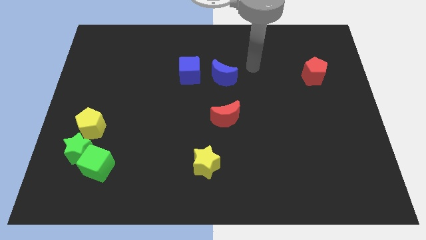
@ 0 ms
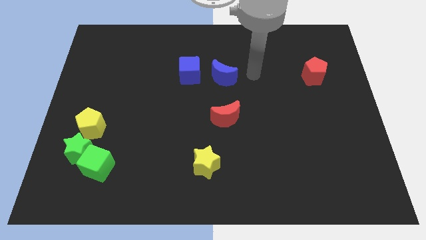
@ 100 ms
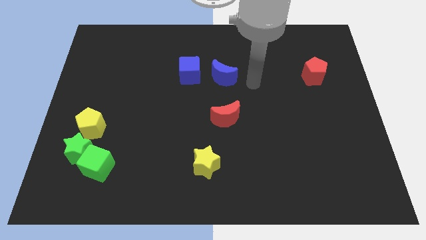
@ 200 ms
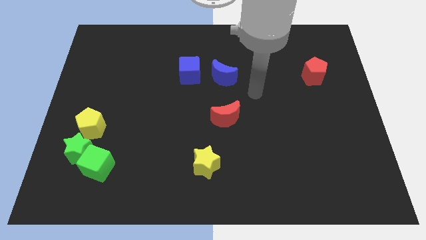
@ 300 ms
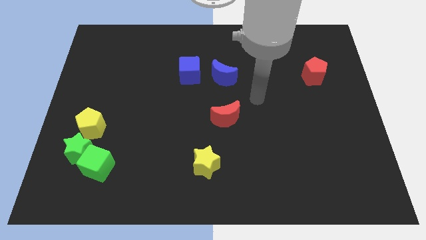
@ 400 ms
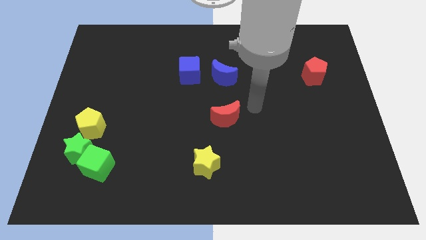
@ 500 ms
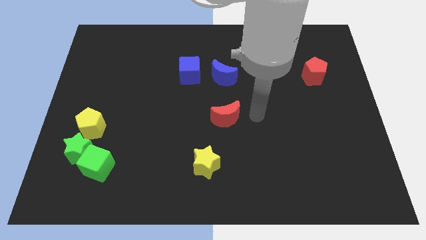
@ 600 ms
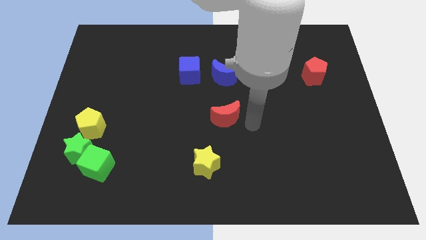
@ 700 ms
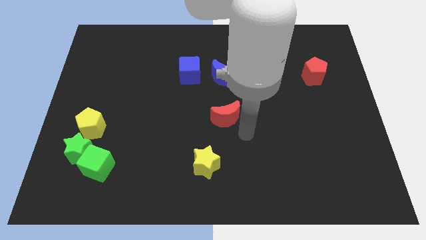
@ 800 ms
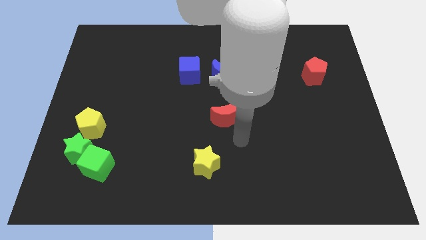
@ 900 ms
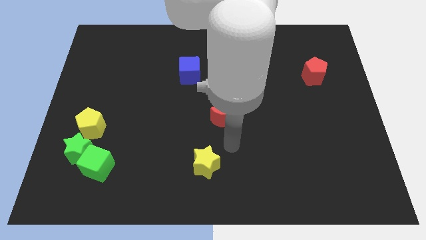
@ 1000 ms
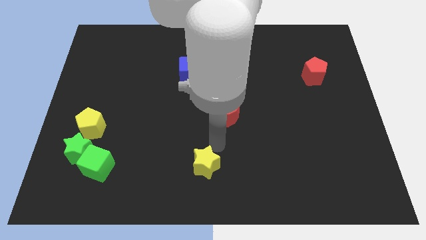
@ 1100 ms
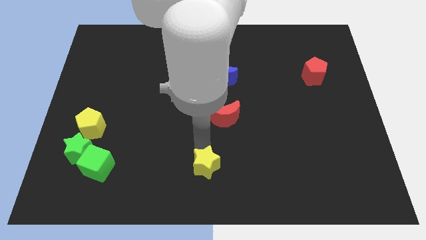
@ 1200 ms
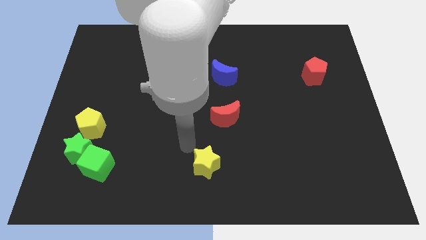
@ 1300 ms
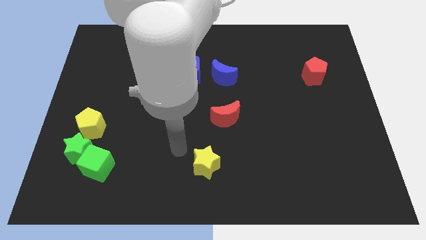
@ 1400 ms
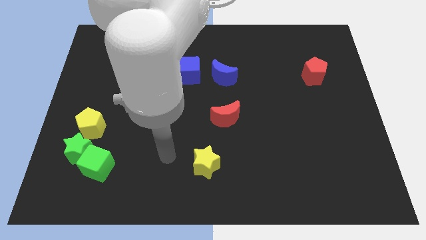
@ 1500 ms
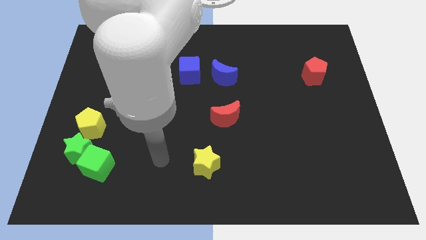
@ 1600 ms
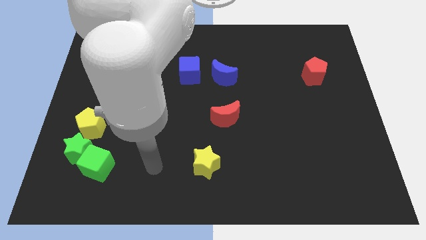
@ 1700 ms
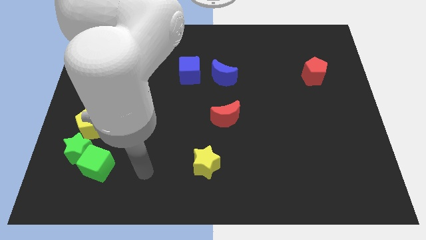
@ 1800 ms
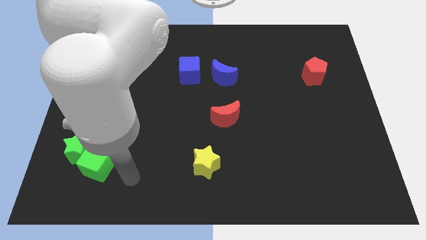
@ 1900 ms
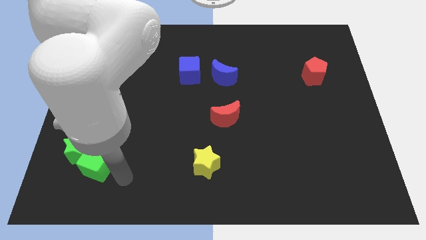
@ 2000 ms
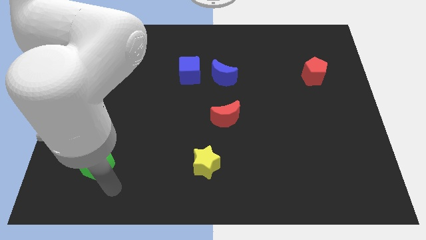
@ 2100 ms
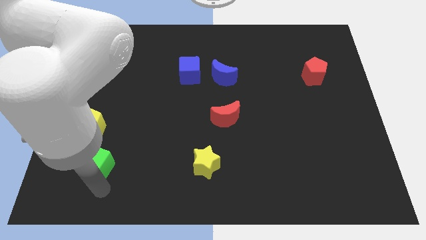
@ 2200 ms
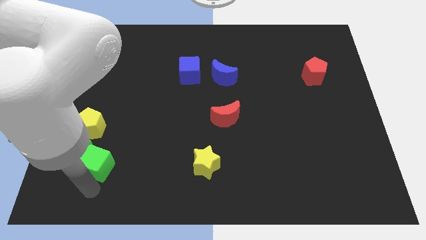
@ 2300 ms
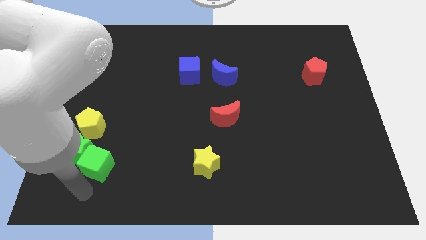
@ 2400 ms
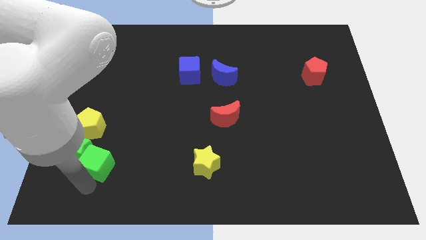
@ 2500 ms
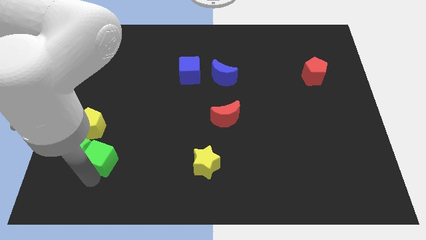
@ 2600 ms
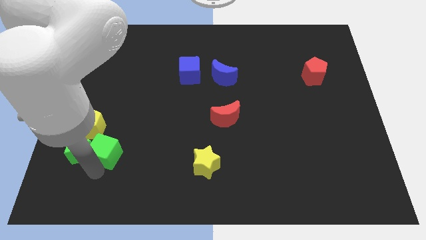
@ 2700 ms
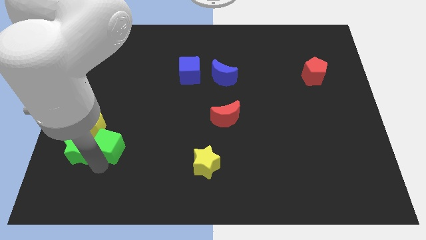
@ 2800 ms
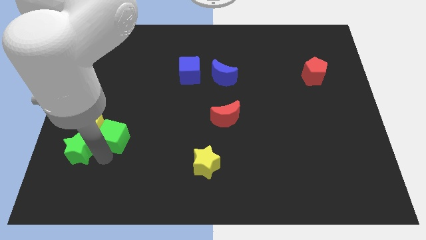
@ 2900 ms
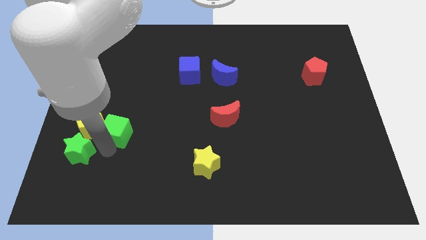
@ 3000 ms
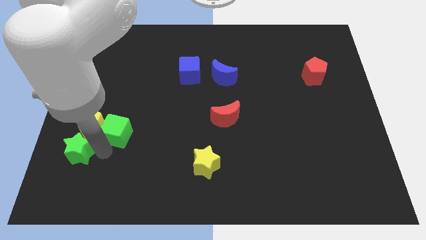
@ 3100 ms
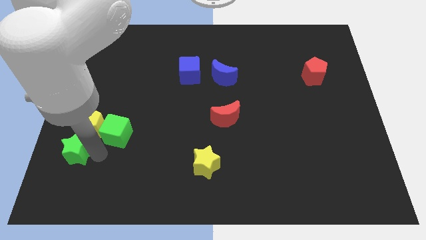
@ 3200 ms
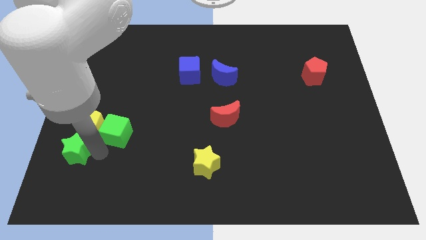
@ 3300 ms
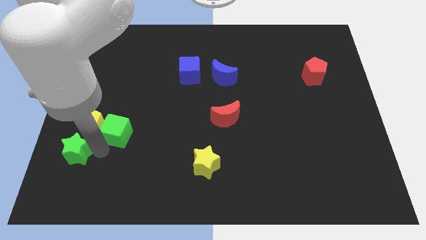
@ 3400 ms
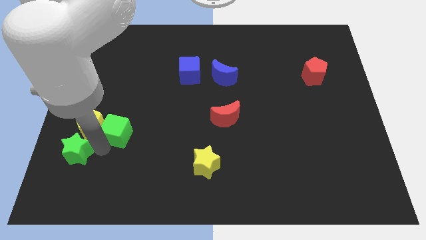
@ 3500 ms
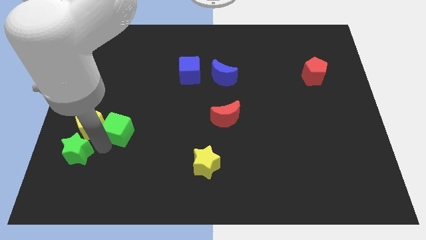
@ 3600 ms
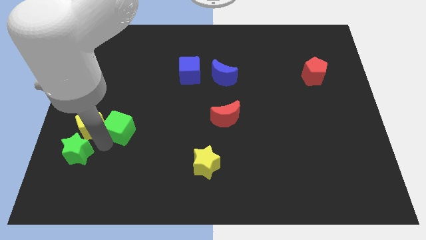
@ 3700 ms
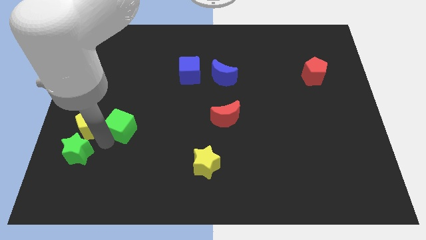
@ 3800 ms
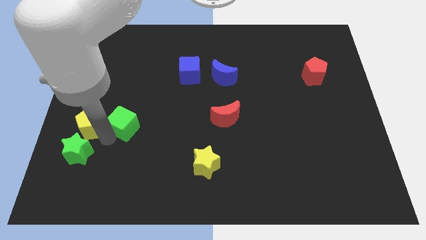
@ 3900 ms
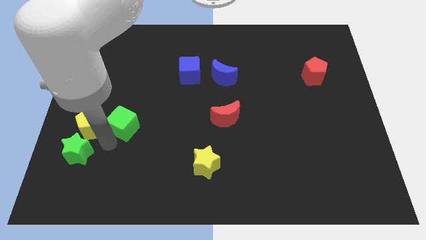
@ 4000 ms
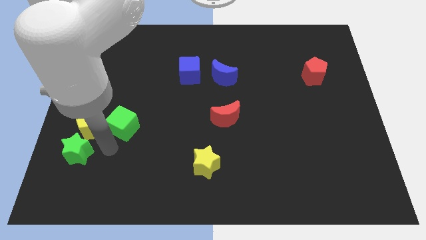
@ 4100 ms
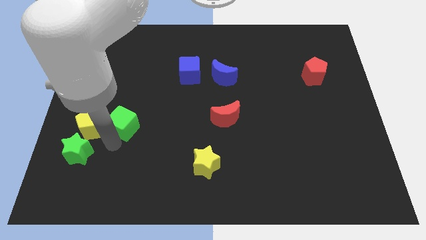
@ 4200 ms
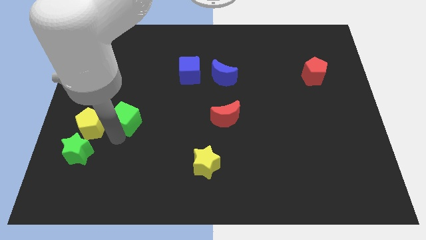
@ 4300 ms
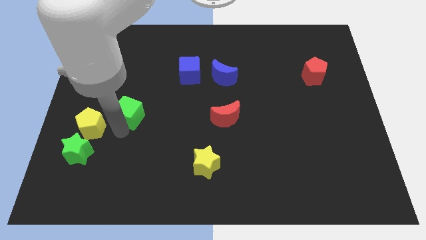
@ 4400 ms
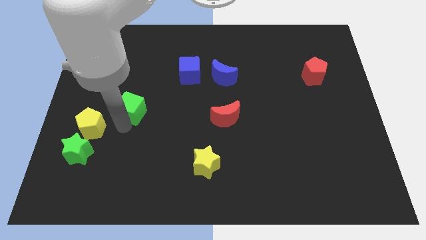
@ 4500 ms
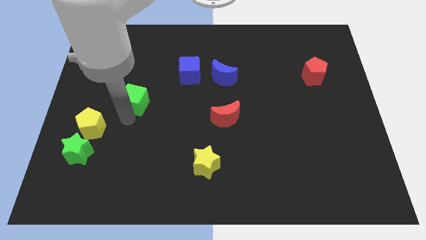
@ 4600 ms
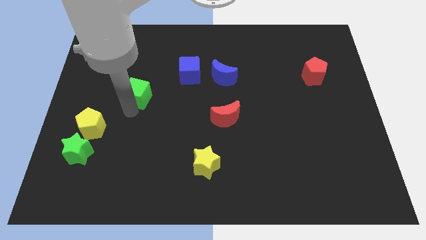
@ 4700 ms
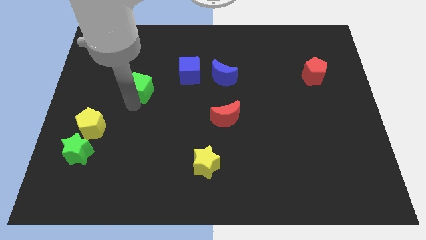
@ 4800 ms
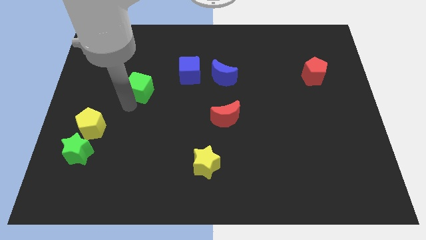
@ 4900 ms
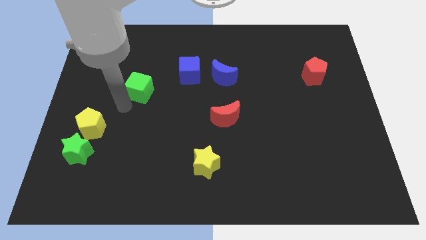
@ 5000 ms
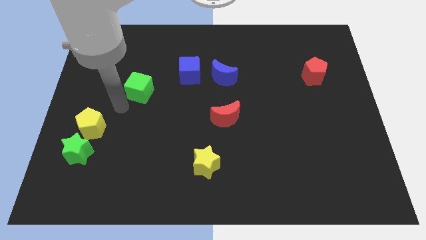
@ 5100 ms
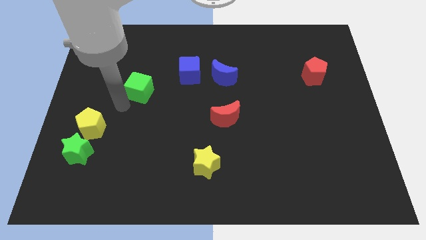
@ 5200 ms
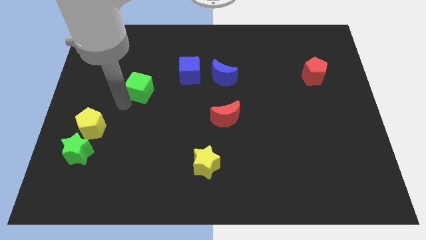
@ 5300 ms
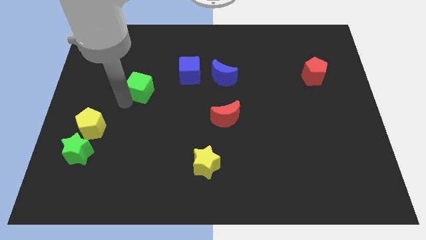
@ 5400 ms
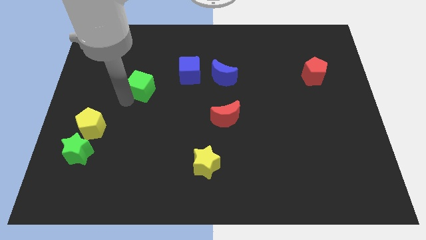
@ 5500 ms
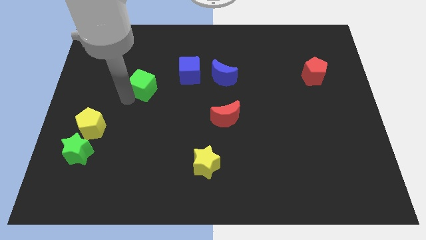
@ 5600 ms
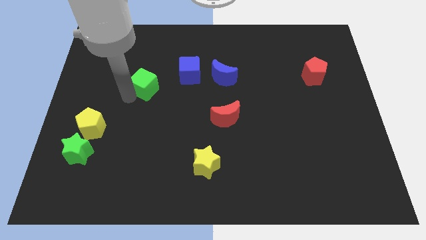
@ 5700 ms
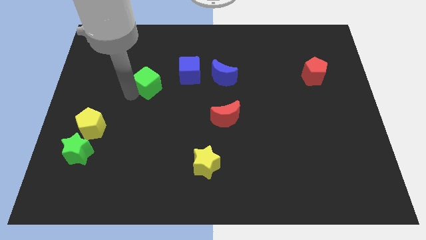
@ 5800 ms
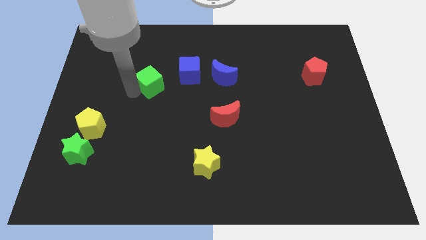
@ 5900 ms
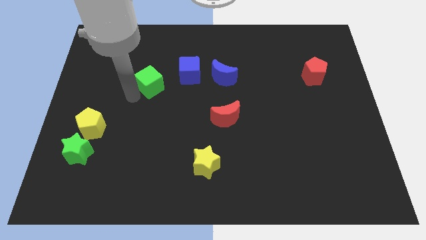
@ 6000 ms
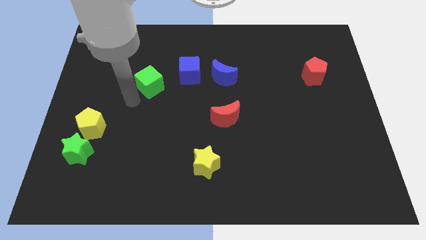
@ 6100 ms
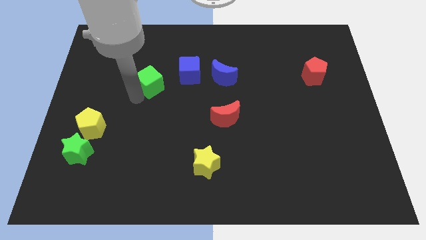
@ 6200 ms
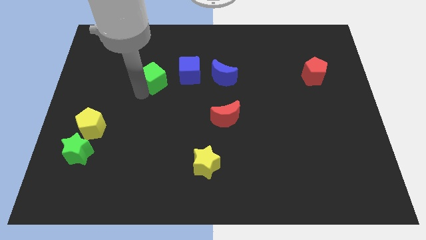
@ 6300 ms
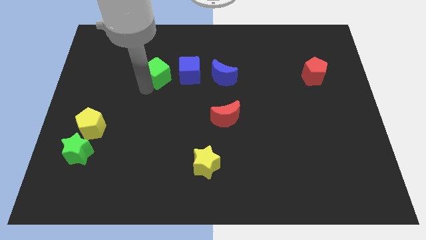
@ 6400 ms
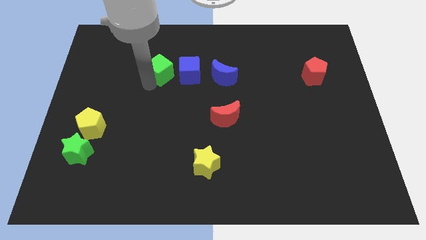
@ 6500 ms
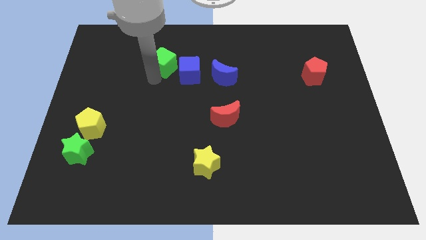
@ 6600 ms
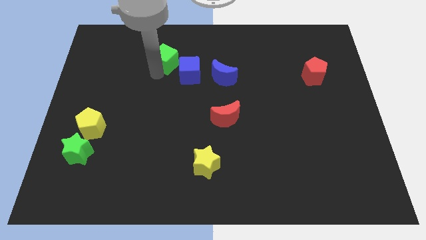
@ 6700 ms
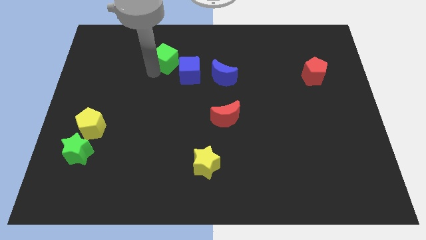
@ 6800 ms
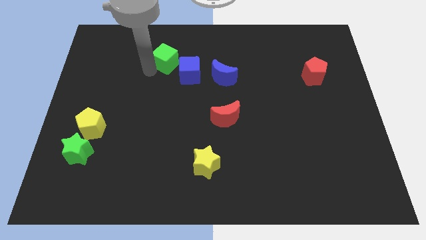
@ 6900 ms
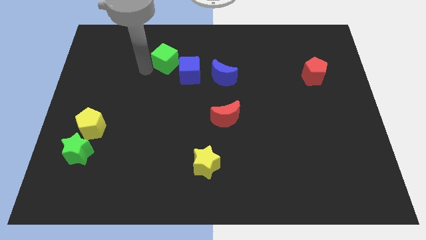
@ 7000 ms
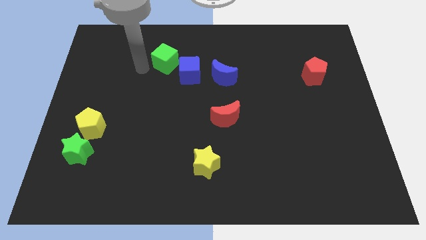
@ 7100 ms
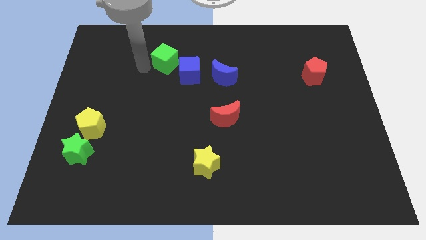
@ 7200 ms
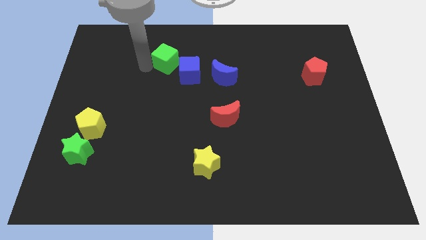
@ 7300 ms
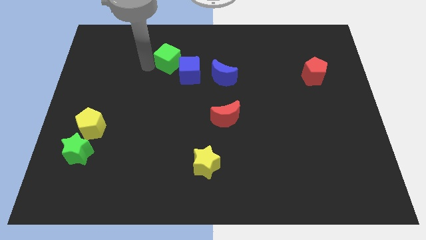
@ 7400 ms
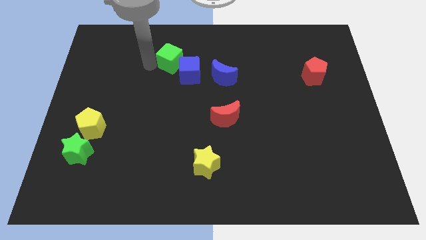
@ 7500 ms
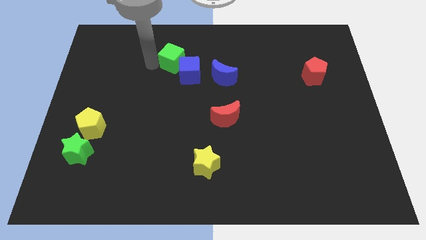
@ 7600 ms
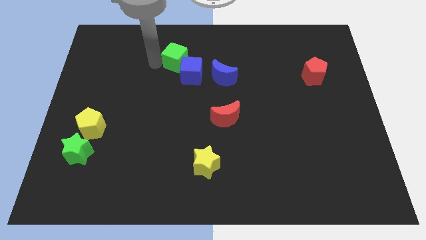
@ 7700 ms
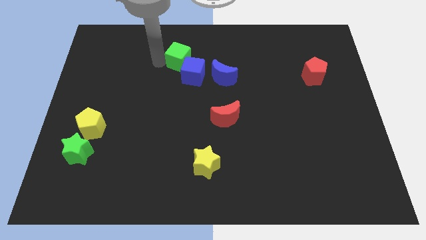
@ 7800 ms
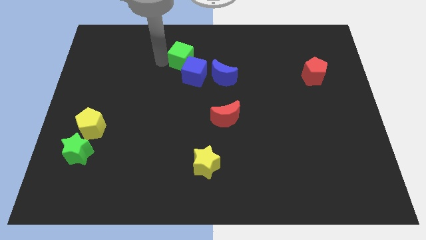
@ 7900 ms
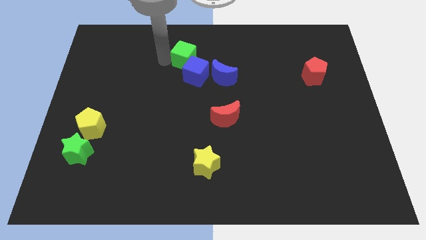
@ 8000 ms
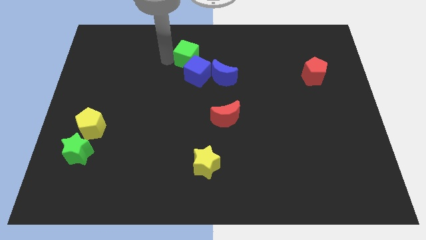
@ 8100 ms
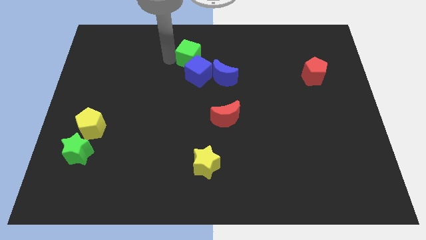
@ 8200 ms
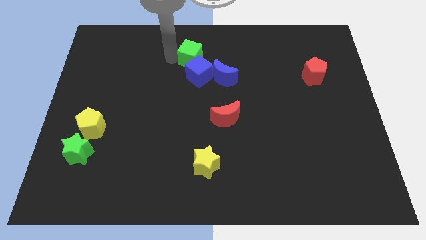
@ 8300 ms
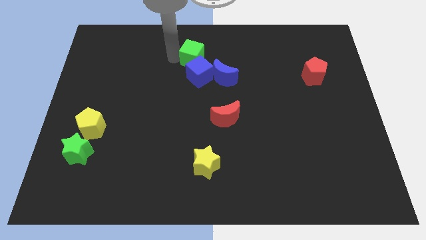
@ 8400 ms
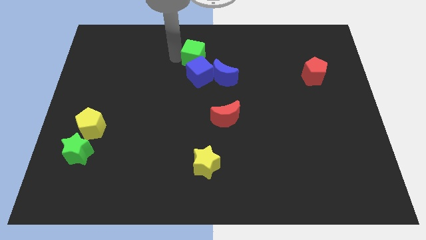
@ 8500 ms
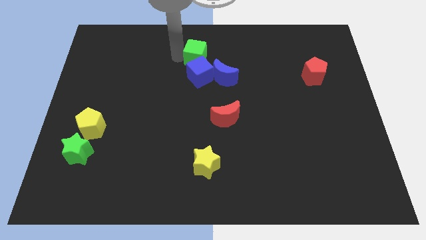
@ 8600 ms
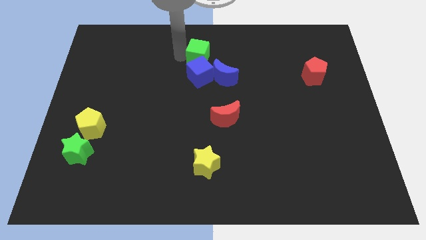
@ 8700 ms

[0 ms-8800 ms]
move the green cube to the top
